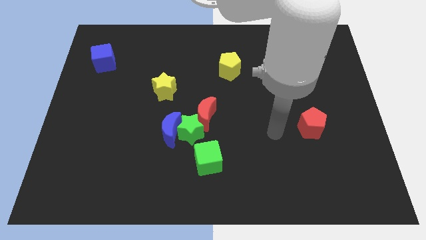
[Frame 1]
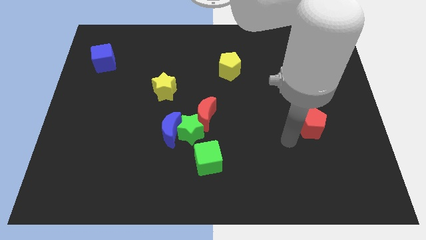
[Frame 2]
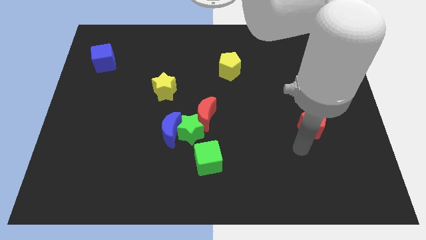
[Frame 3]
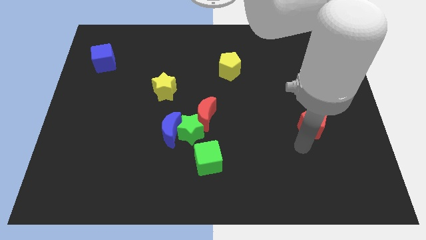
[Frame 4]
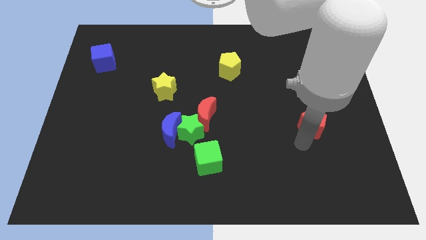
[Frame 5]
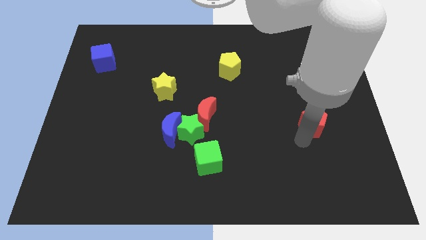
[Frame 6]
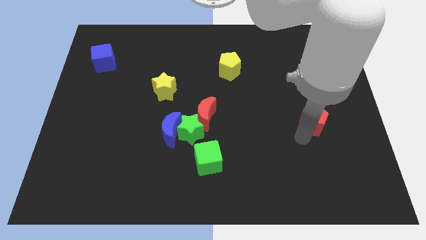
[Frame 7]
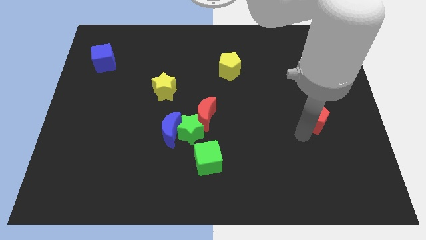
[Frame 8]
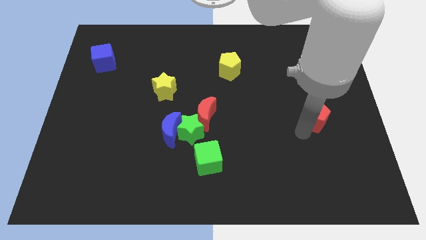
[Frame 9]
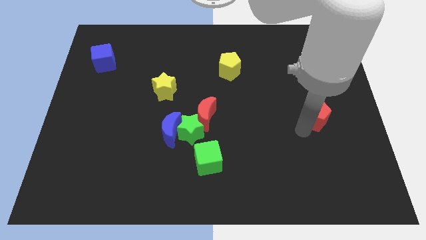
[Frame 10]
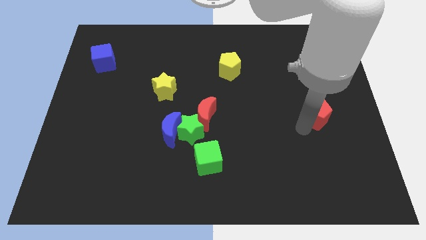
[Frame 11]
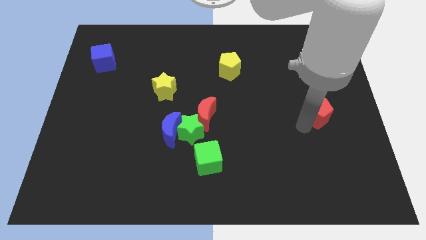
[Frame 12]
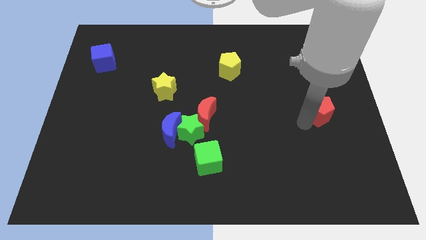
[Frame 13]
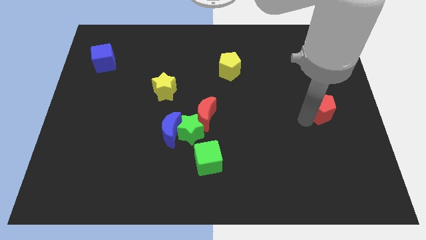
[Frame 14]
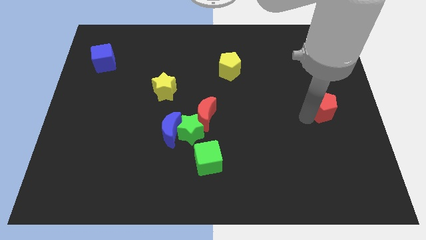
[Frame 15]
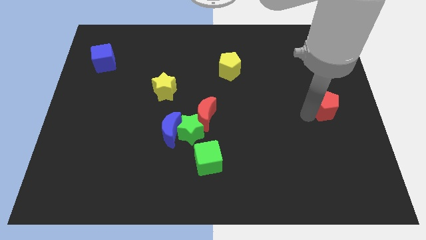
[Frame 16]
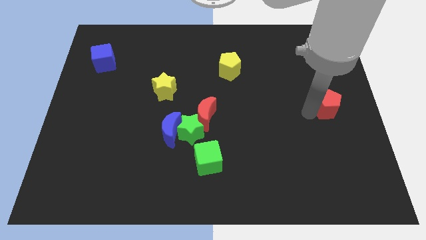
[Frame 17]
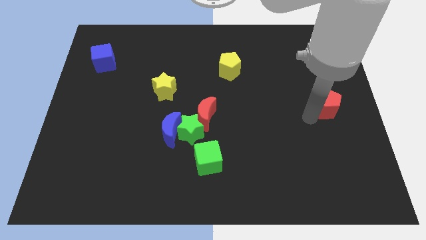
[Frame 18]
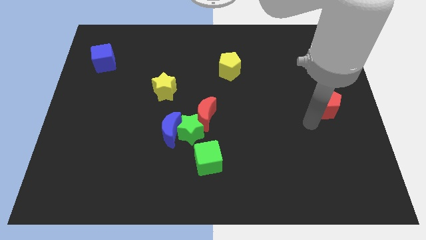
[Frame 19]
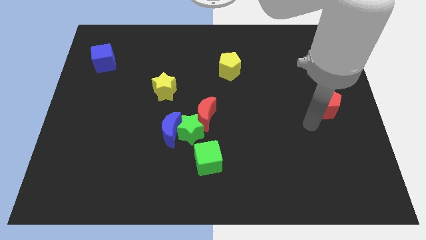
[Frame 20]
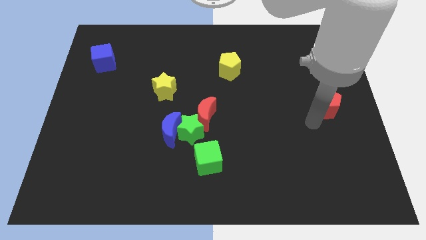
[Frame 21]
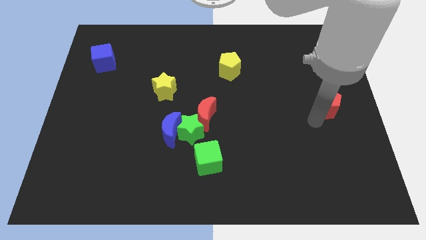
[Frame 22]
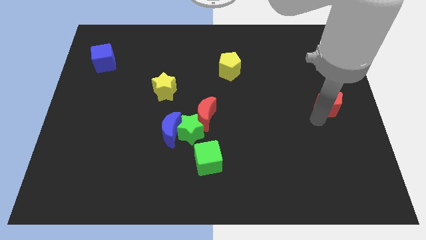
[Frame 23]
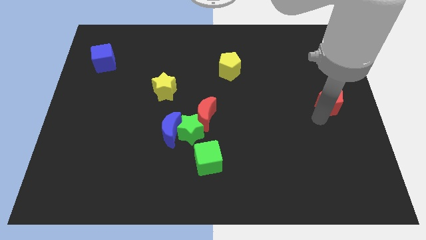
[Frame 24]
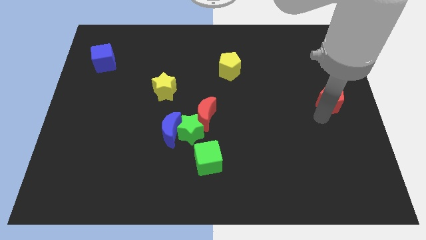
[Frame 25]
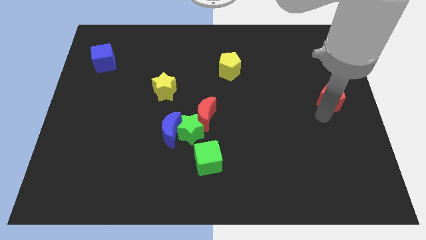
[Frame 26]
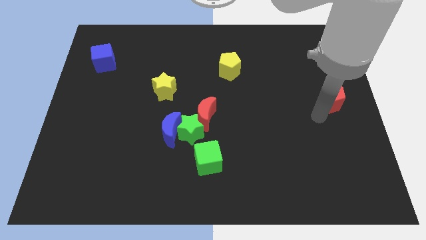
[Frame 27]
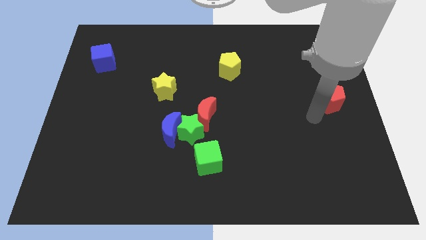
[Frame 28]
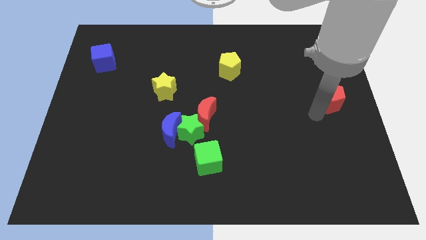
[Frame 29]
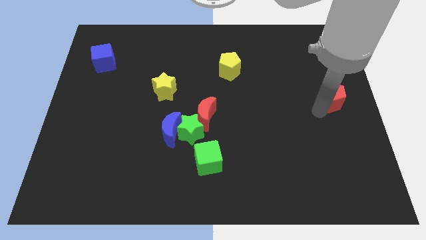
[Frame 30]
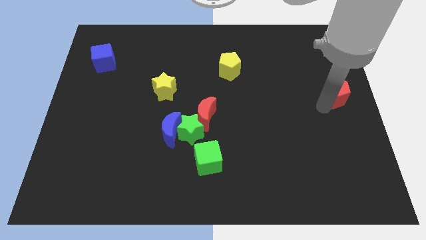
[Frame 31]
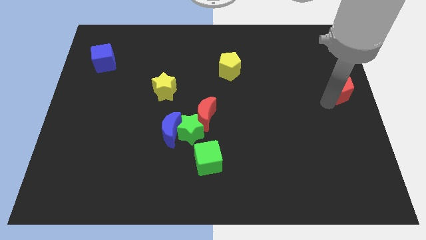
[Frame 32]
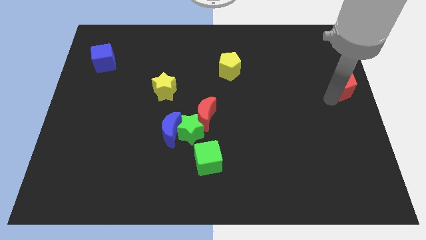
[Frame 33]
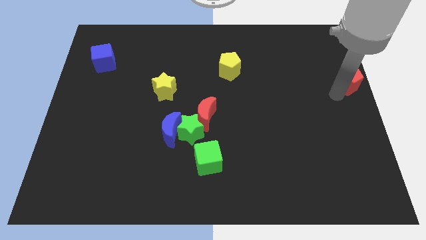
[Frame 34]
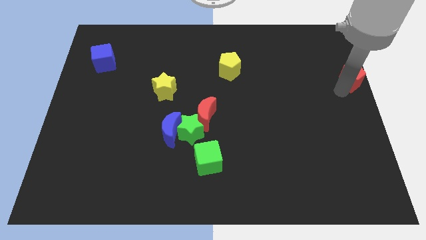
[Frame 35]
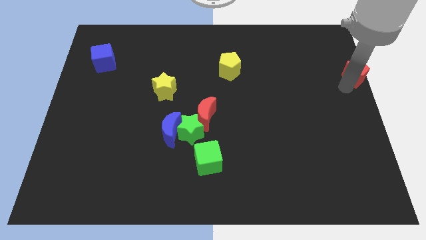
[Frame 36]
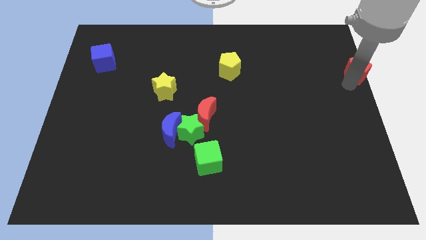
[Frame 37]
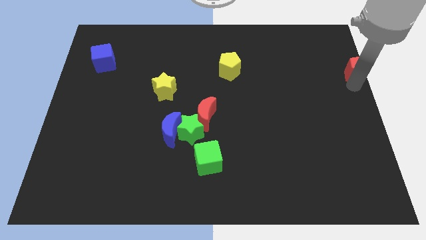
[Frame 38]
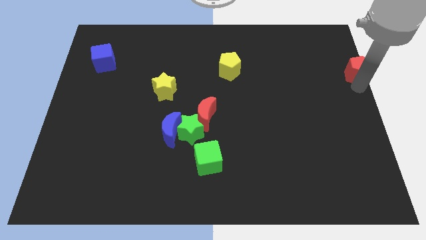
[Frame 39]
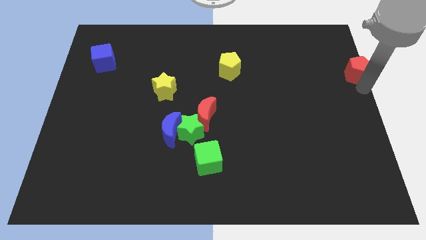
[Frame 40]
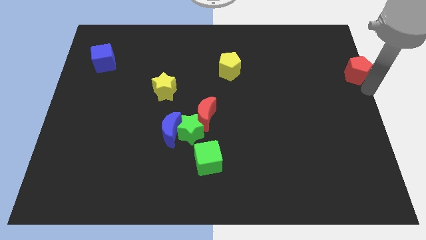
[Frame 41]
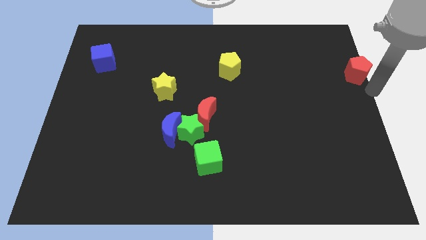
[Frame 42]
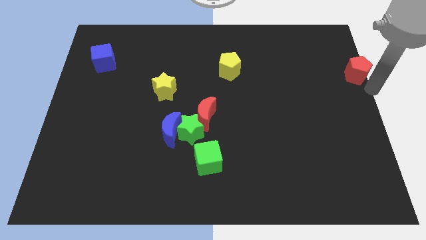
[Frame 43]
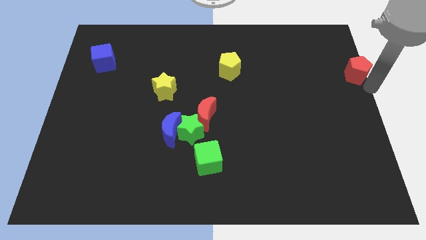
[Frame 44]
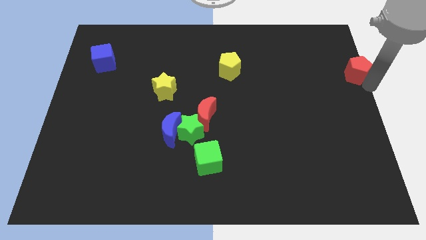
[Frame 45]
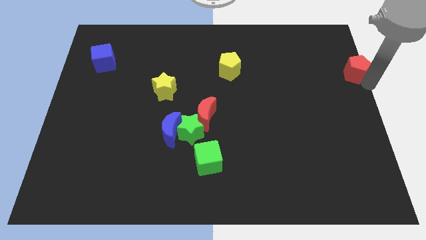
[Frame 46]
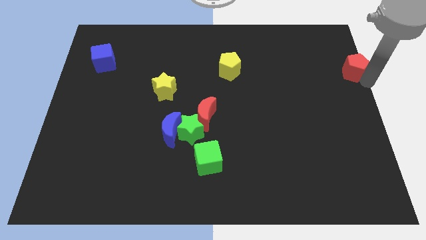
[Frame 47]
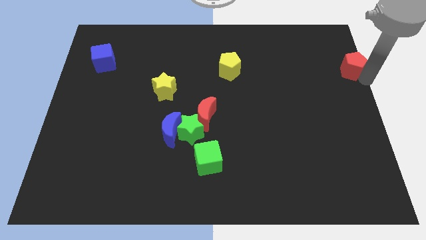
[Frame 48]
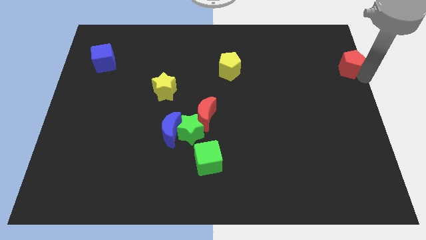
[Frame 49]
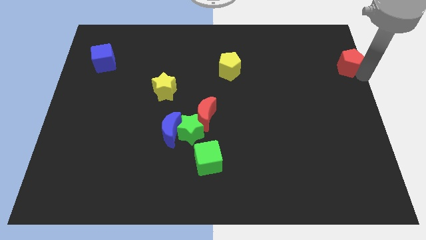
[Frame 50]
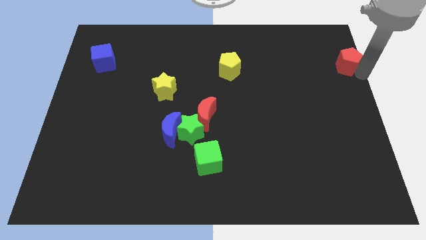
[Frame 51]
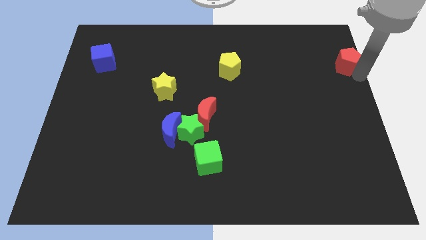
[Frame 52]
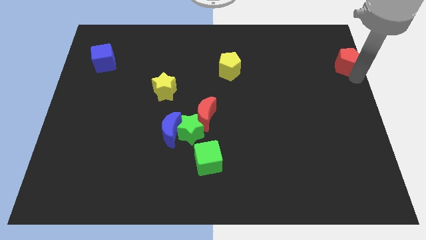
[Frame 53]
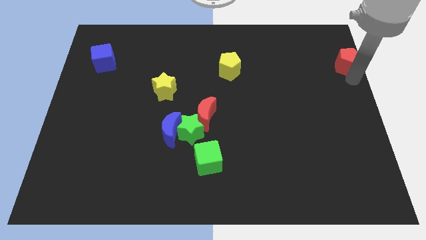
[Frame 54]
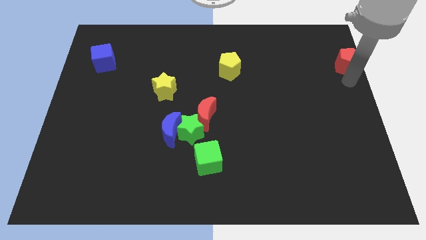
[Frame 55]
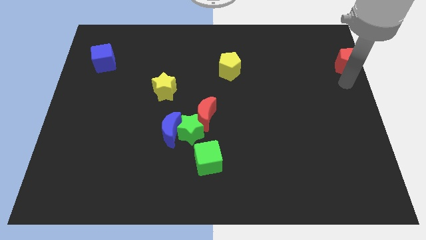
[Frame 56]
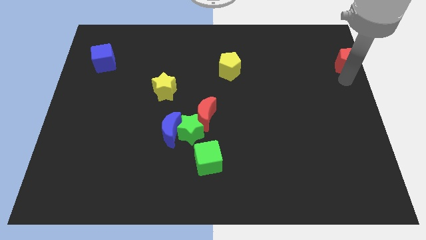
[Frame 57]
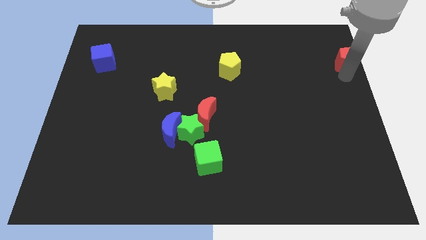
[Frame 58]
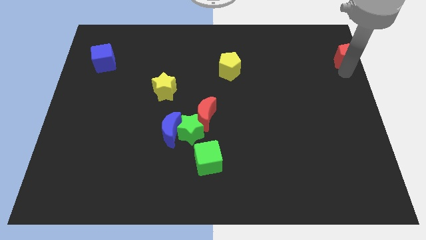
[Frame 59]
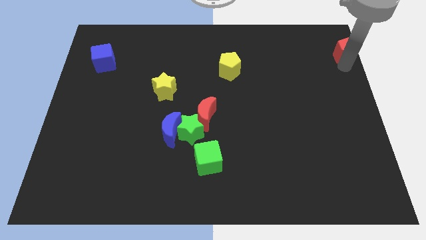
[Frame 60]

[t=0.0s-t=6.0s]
slide the red pentagon to the top right of the board
